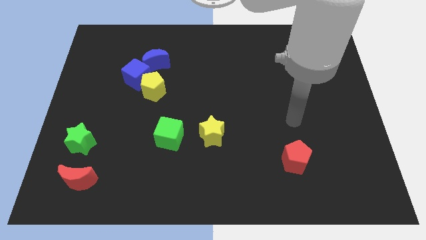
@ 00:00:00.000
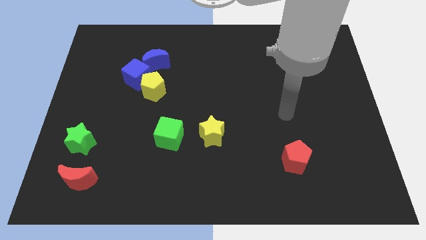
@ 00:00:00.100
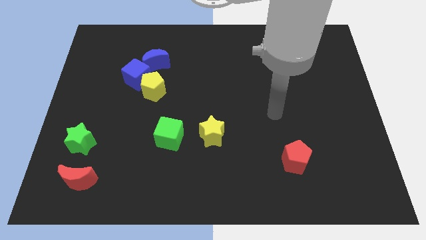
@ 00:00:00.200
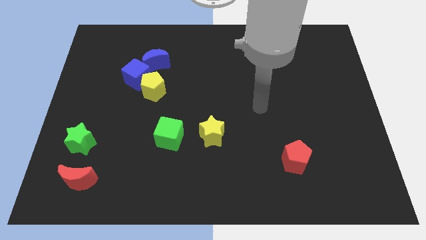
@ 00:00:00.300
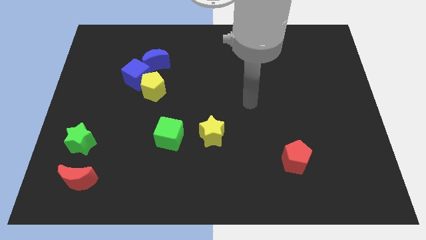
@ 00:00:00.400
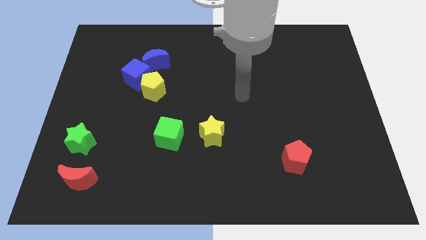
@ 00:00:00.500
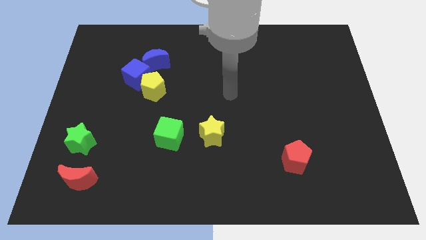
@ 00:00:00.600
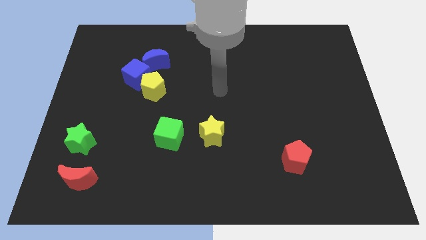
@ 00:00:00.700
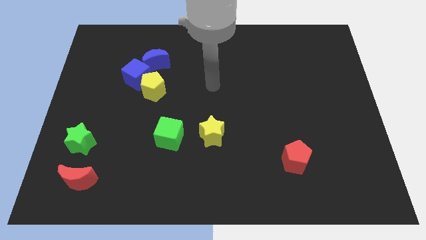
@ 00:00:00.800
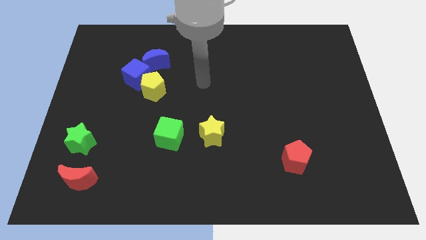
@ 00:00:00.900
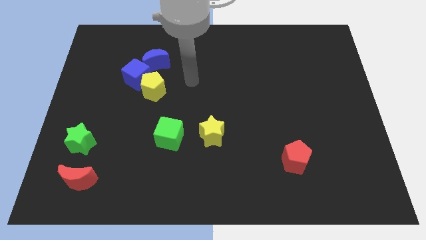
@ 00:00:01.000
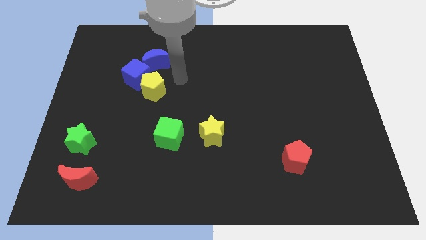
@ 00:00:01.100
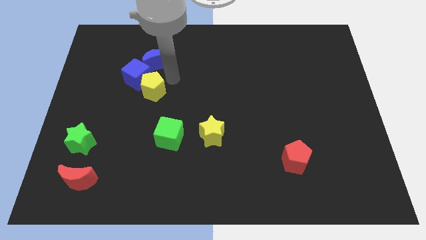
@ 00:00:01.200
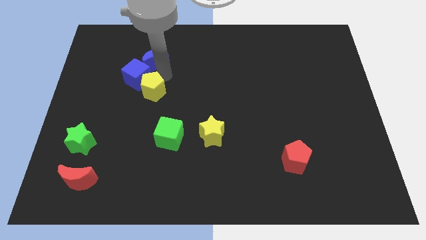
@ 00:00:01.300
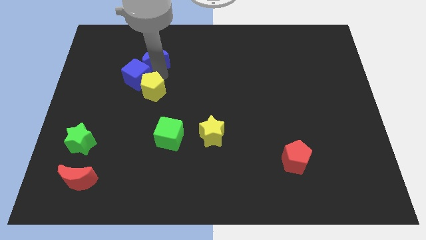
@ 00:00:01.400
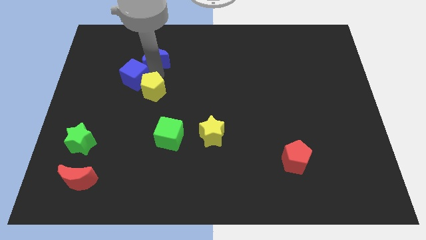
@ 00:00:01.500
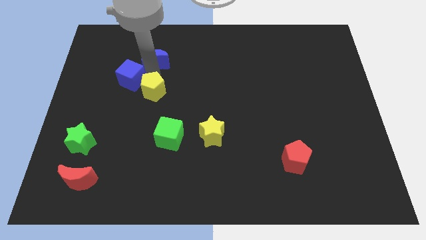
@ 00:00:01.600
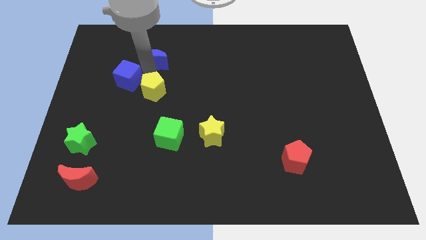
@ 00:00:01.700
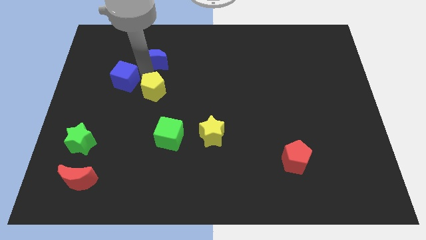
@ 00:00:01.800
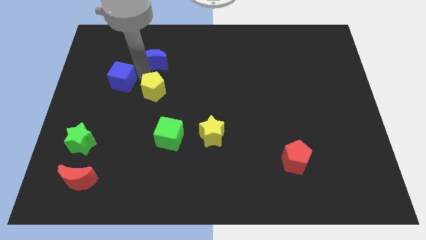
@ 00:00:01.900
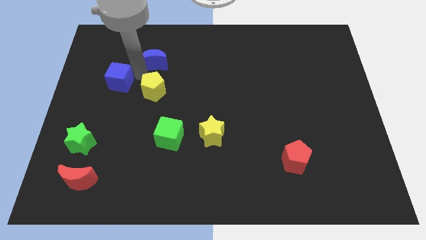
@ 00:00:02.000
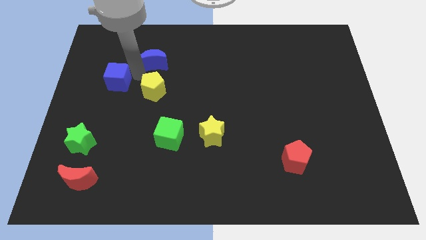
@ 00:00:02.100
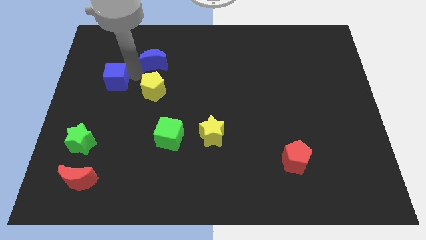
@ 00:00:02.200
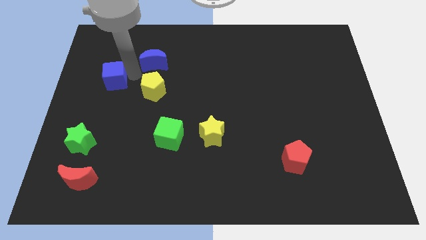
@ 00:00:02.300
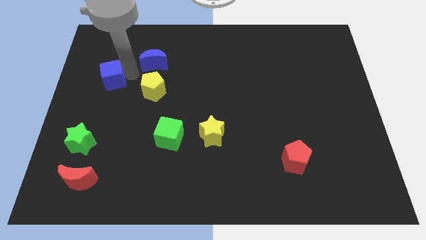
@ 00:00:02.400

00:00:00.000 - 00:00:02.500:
move the blue cube away from the yellow pentagon and blue moon

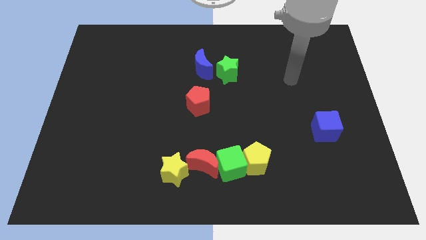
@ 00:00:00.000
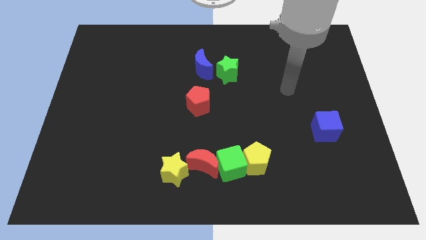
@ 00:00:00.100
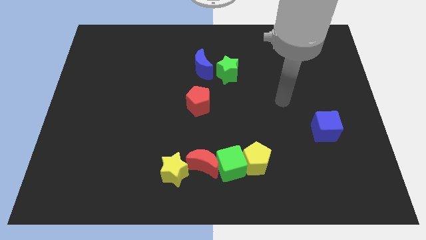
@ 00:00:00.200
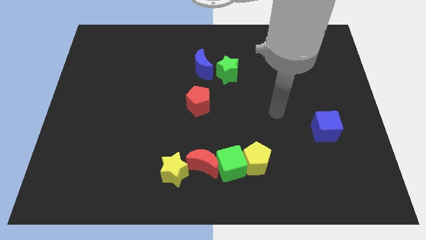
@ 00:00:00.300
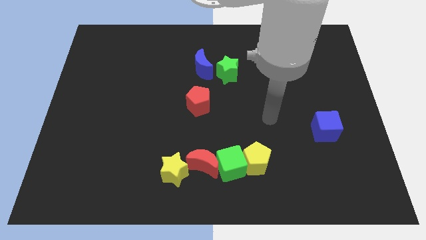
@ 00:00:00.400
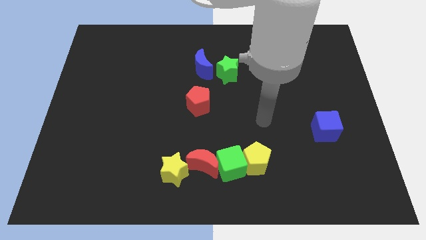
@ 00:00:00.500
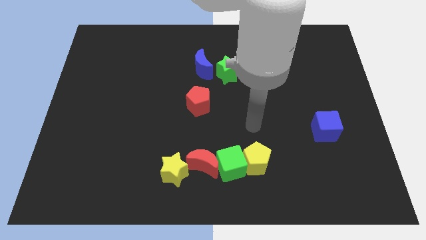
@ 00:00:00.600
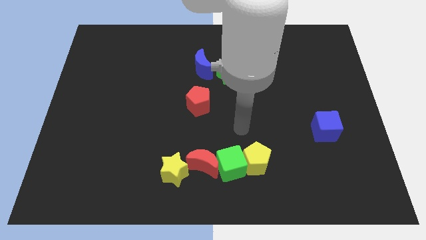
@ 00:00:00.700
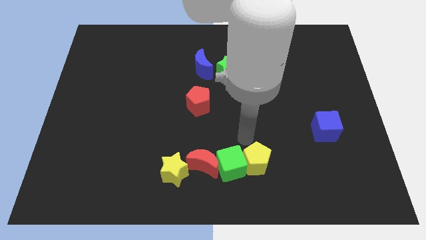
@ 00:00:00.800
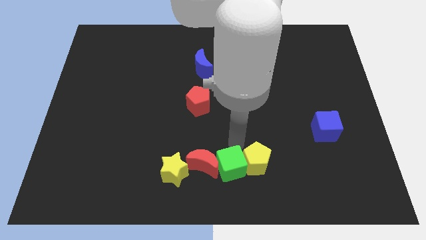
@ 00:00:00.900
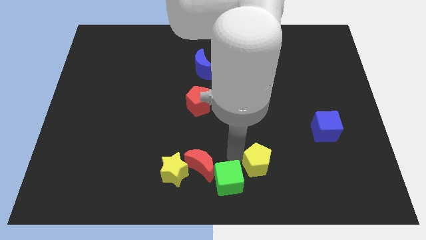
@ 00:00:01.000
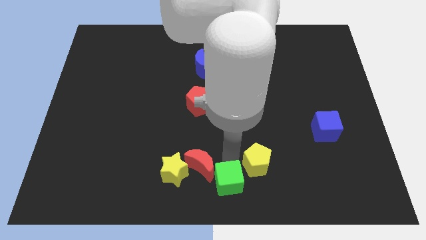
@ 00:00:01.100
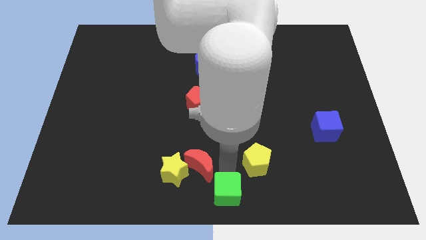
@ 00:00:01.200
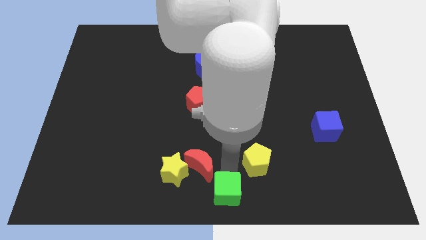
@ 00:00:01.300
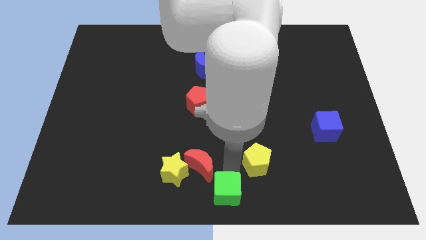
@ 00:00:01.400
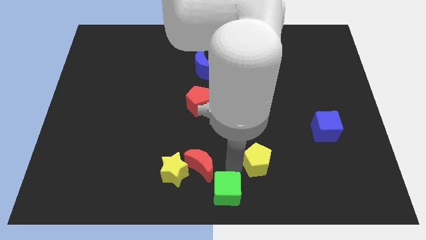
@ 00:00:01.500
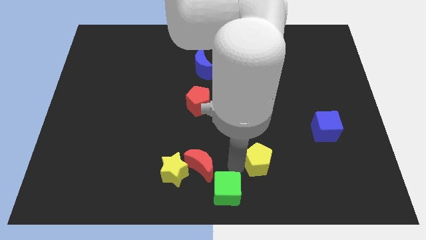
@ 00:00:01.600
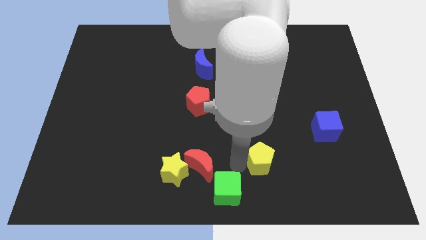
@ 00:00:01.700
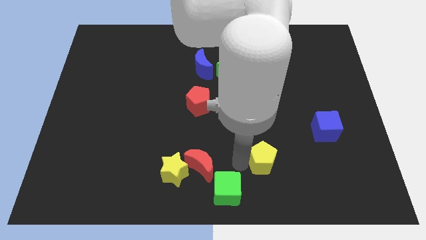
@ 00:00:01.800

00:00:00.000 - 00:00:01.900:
pull the yellow pentagon apart from the green cube

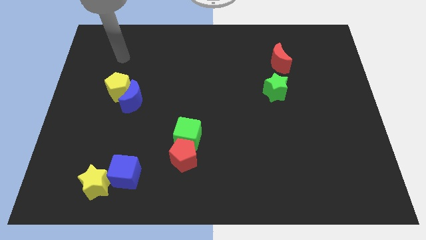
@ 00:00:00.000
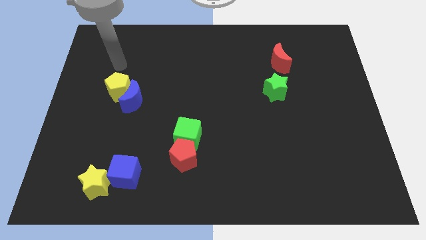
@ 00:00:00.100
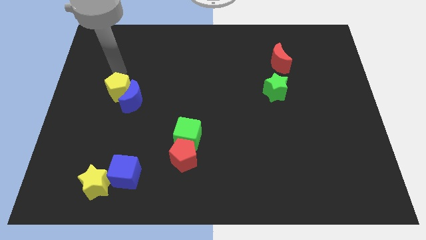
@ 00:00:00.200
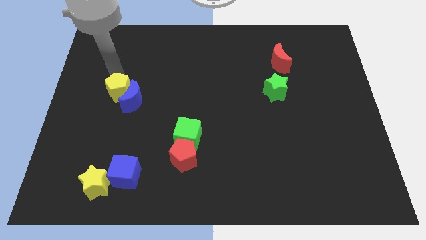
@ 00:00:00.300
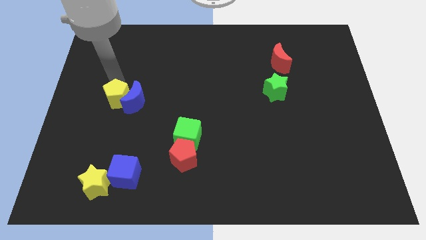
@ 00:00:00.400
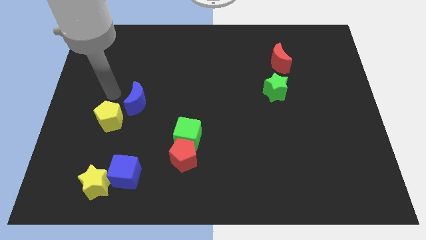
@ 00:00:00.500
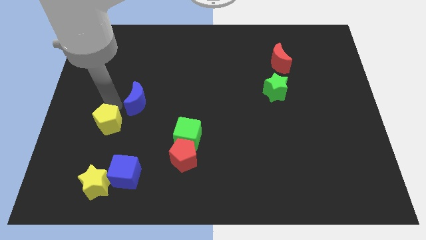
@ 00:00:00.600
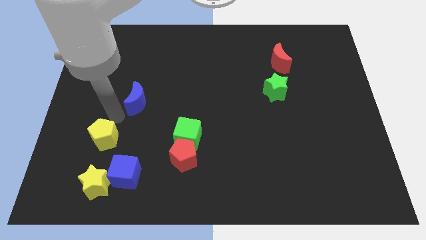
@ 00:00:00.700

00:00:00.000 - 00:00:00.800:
pull the blue moon apart from the yellow pentagon

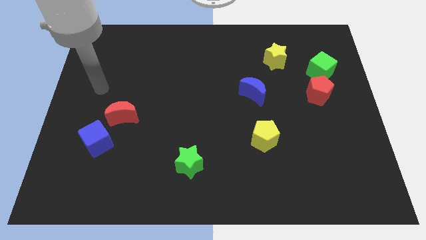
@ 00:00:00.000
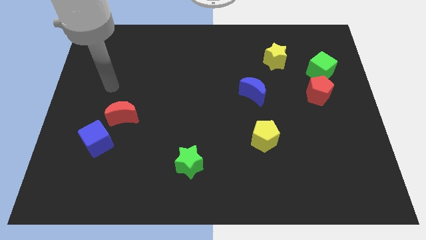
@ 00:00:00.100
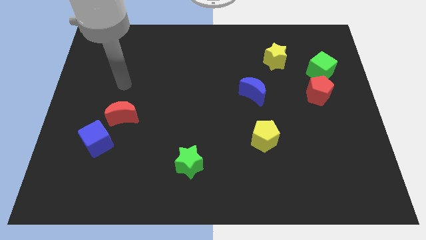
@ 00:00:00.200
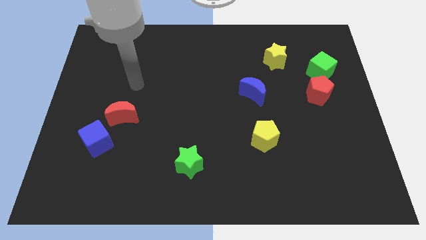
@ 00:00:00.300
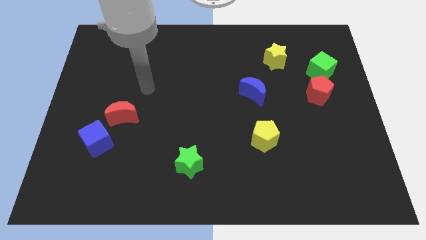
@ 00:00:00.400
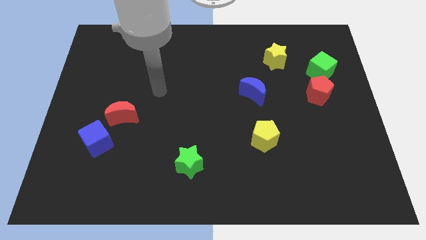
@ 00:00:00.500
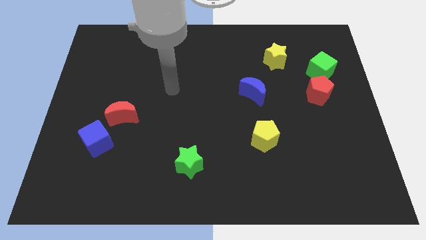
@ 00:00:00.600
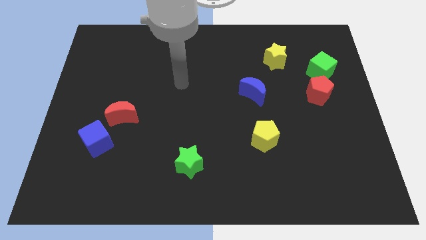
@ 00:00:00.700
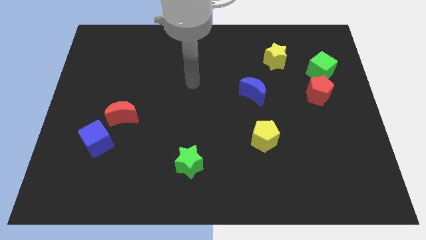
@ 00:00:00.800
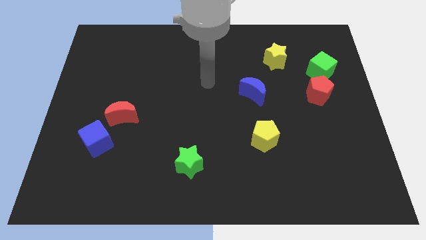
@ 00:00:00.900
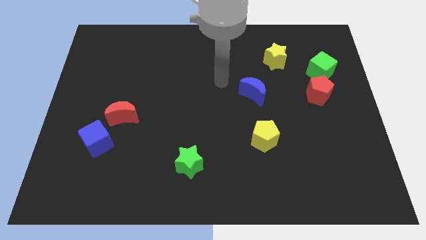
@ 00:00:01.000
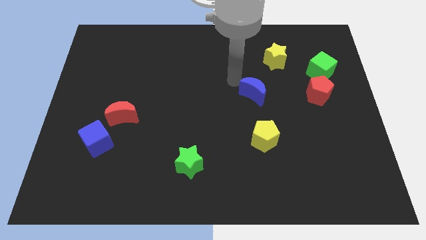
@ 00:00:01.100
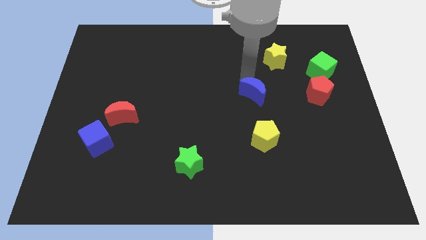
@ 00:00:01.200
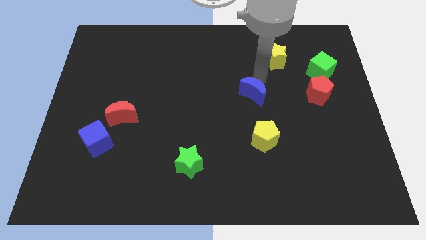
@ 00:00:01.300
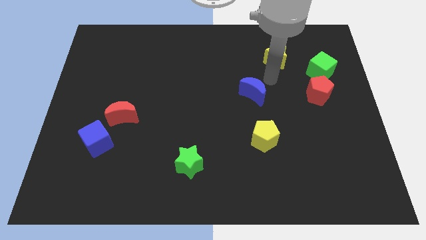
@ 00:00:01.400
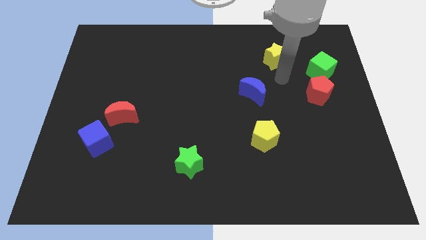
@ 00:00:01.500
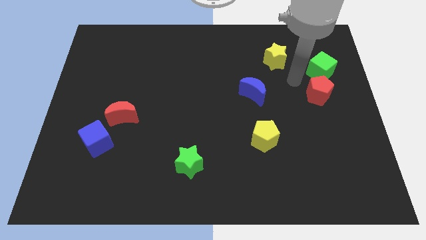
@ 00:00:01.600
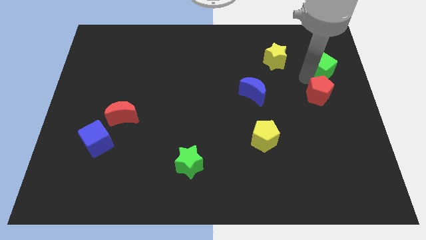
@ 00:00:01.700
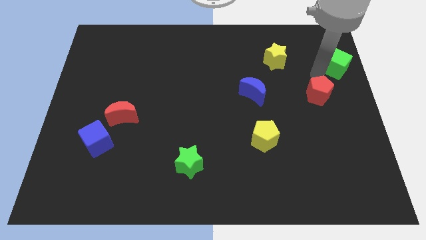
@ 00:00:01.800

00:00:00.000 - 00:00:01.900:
separate the red pentagon from the green cube

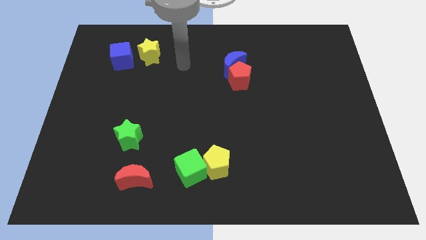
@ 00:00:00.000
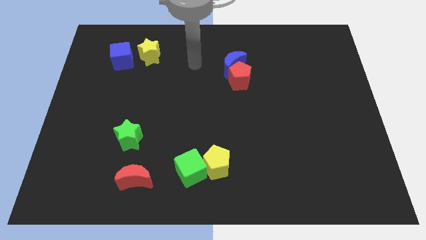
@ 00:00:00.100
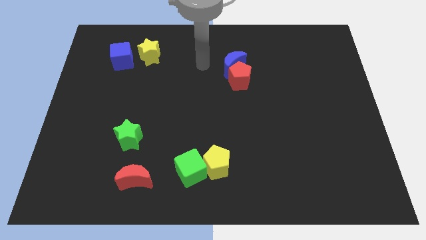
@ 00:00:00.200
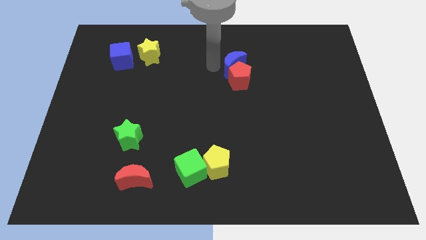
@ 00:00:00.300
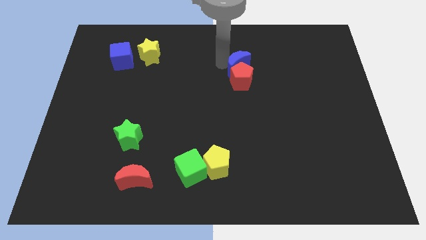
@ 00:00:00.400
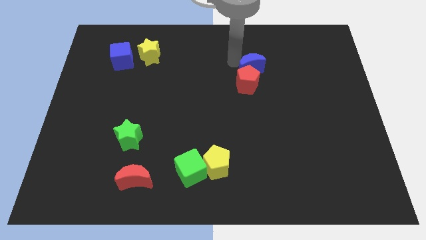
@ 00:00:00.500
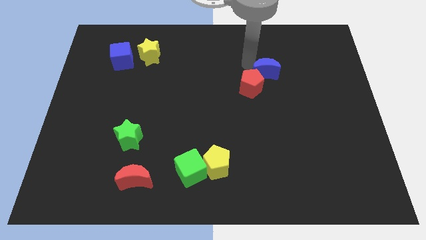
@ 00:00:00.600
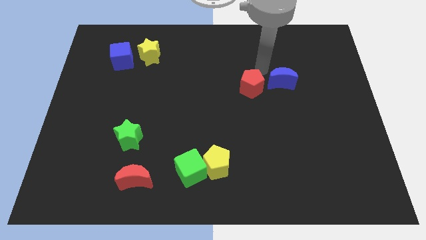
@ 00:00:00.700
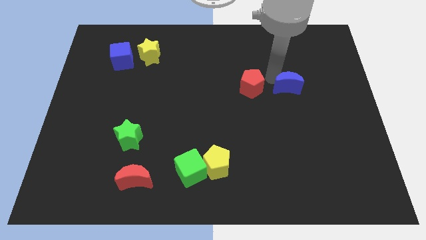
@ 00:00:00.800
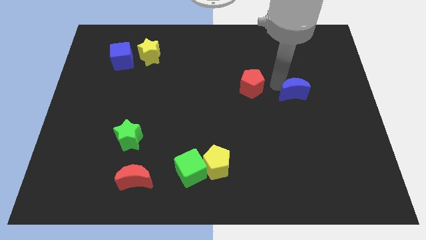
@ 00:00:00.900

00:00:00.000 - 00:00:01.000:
move the red pentagon away from the blue moon

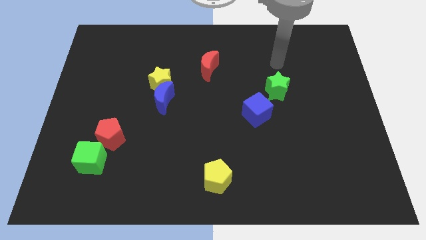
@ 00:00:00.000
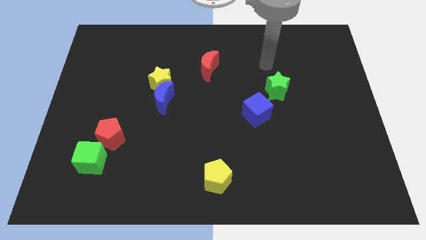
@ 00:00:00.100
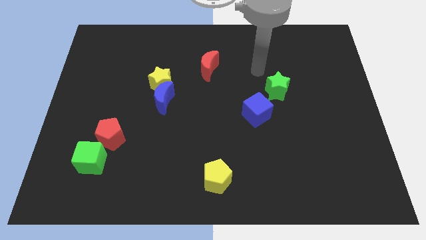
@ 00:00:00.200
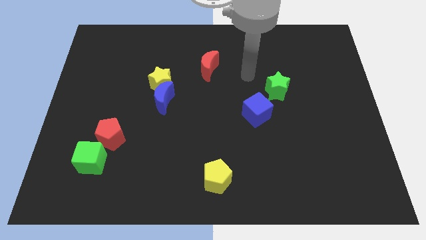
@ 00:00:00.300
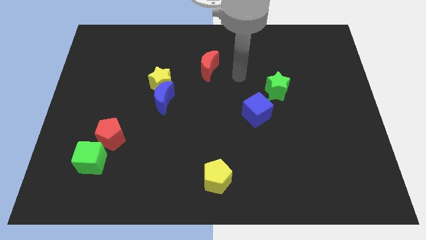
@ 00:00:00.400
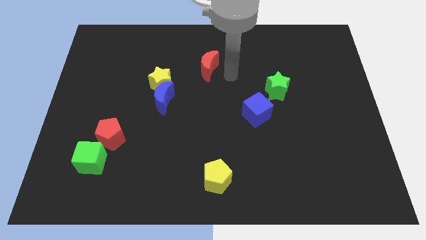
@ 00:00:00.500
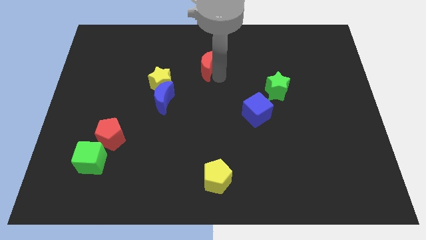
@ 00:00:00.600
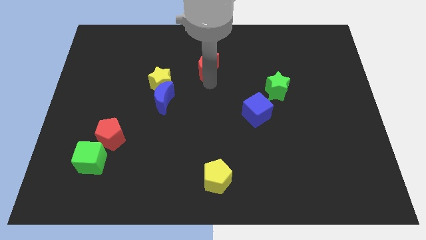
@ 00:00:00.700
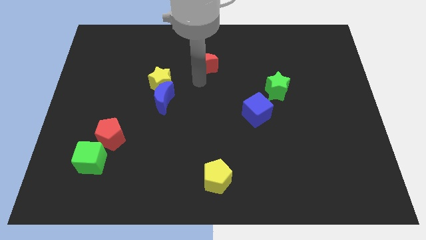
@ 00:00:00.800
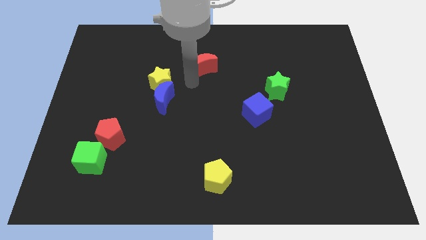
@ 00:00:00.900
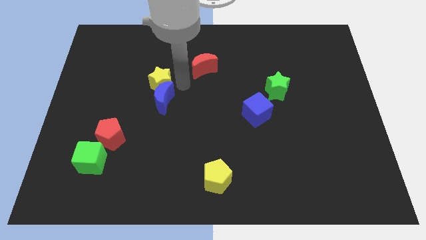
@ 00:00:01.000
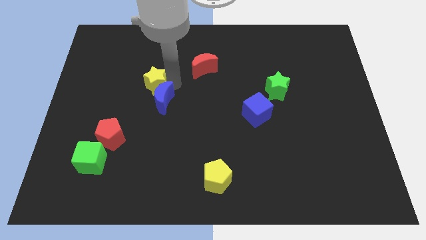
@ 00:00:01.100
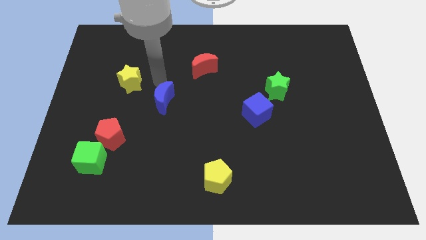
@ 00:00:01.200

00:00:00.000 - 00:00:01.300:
separate the blue moon from the yellow star
